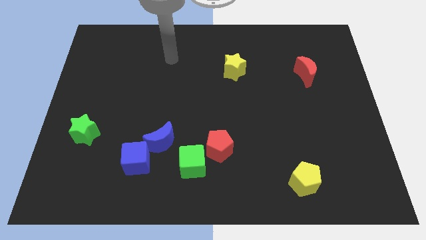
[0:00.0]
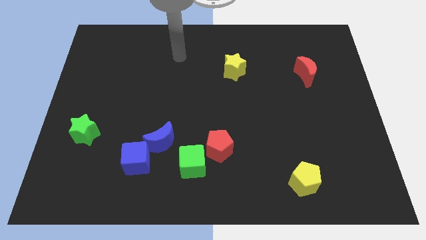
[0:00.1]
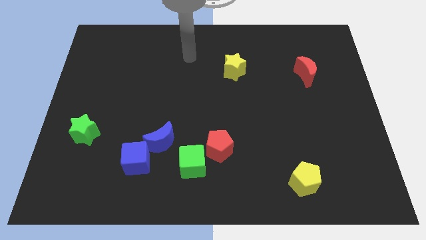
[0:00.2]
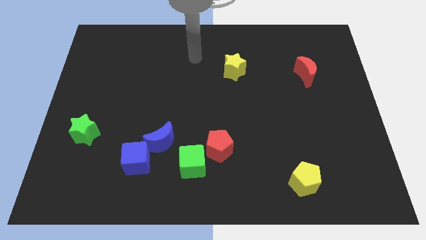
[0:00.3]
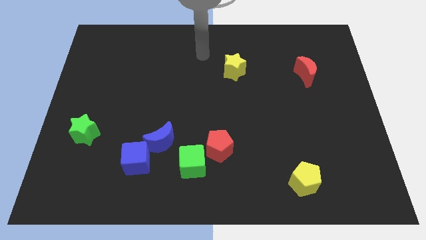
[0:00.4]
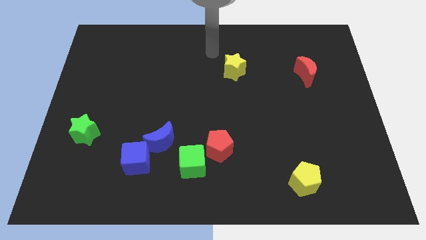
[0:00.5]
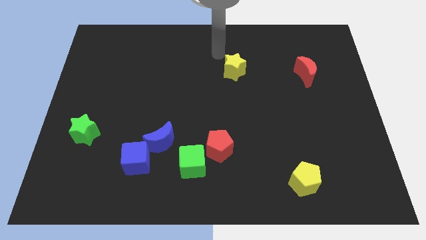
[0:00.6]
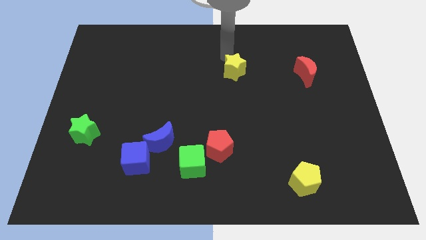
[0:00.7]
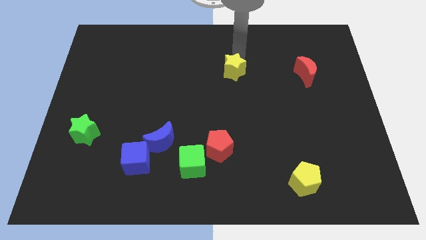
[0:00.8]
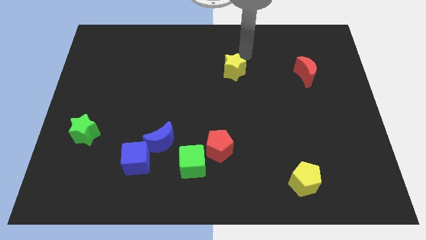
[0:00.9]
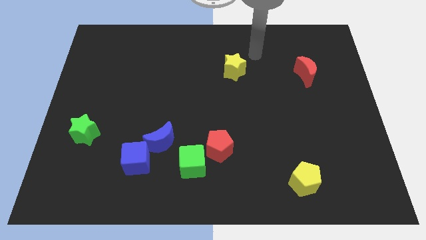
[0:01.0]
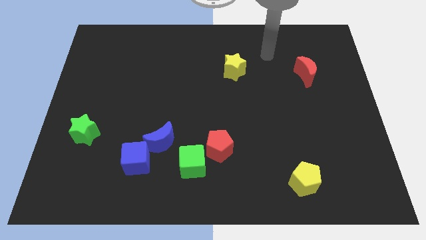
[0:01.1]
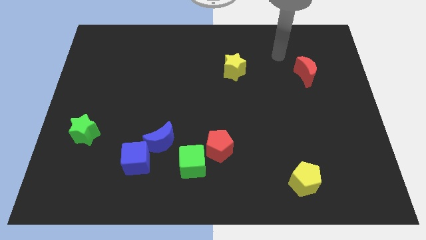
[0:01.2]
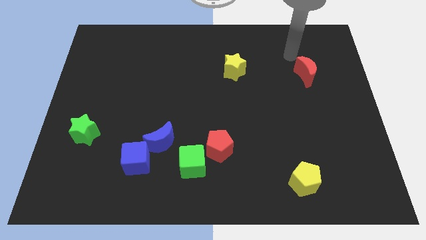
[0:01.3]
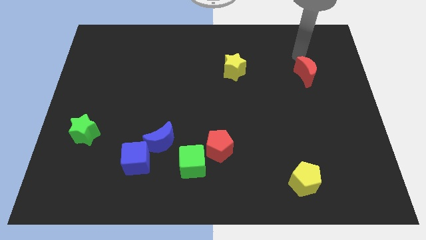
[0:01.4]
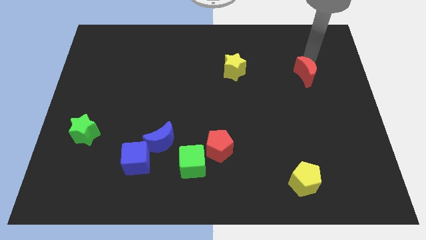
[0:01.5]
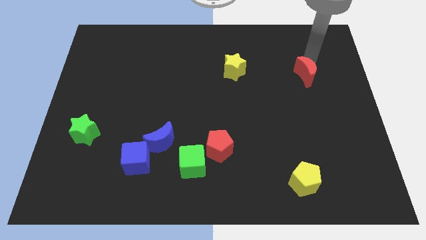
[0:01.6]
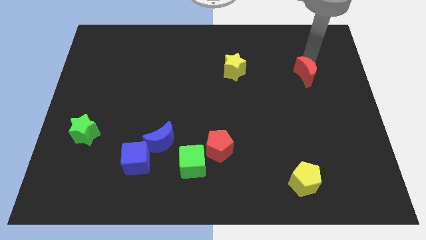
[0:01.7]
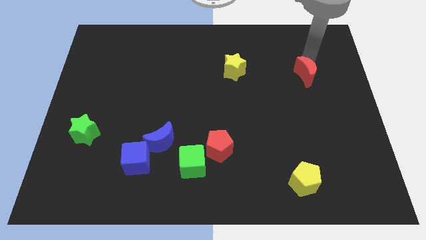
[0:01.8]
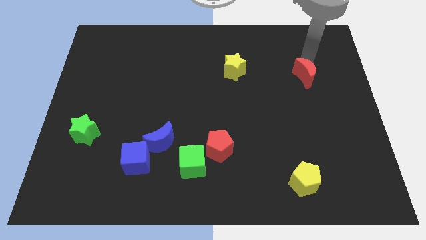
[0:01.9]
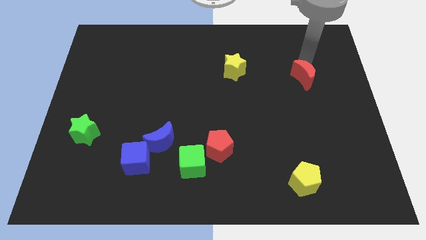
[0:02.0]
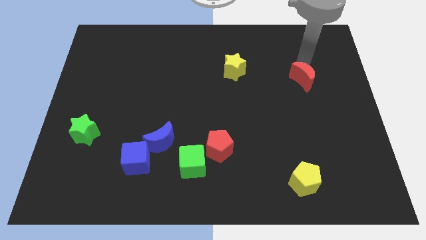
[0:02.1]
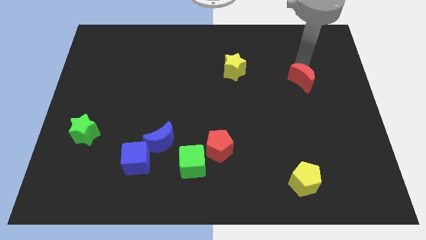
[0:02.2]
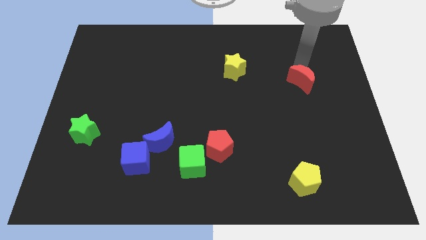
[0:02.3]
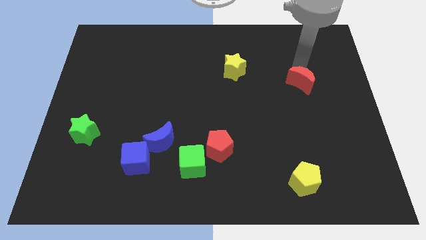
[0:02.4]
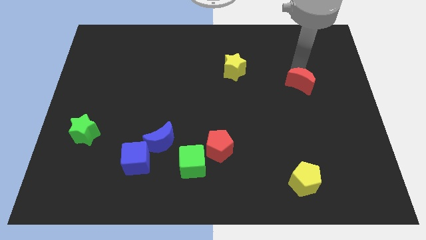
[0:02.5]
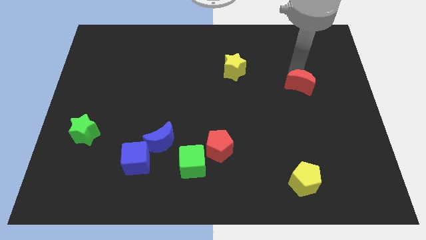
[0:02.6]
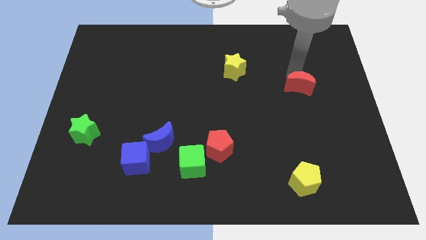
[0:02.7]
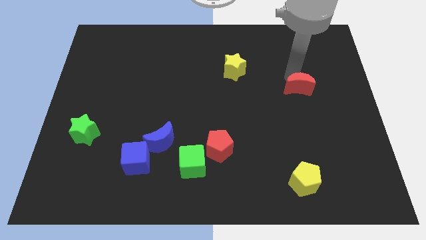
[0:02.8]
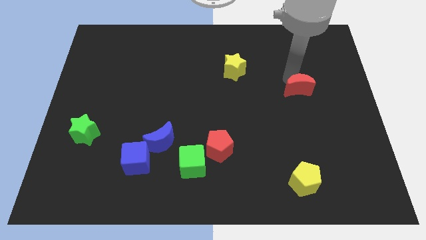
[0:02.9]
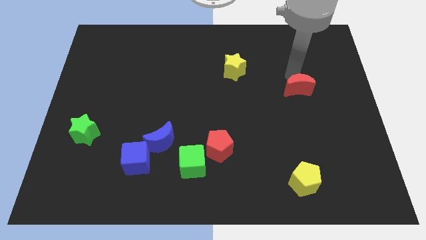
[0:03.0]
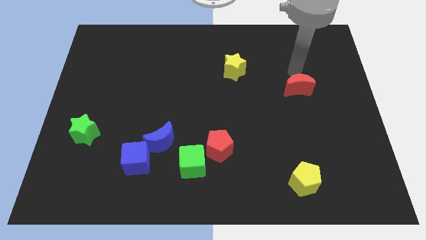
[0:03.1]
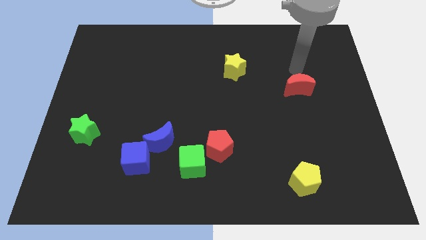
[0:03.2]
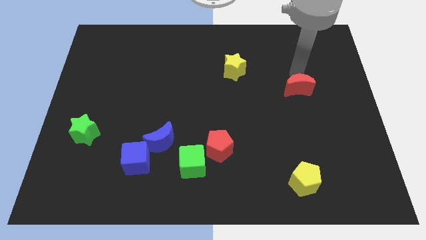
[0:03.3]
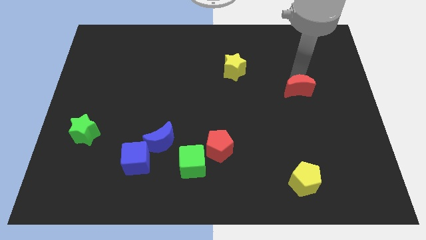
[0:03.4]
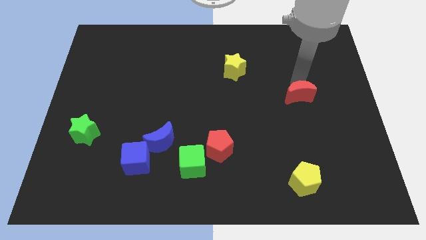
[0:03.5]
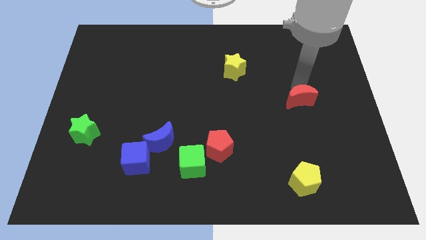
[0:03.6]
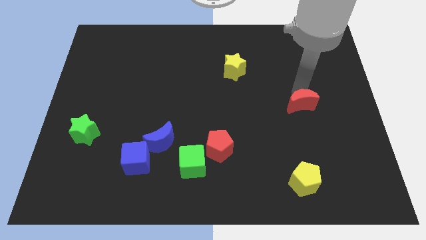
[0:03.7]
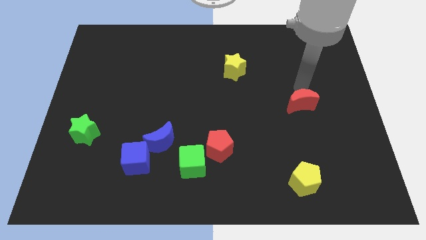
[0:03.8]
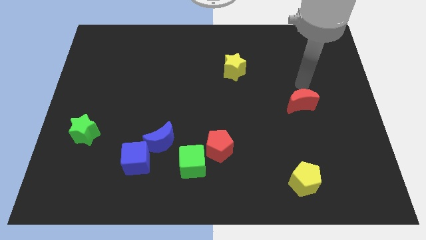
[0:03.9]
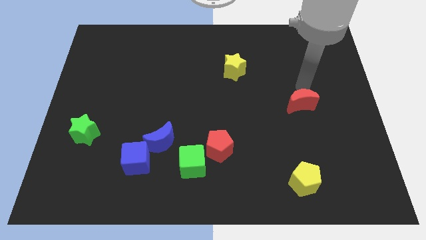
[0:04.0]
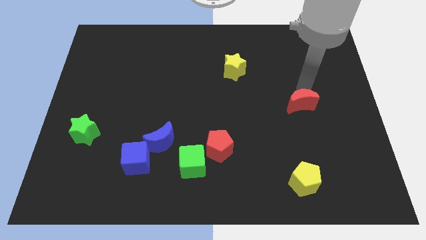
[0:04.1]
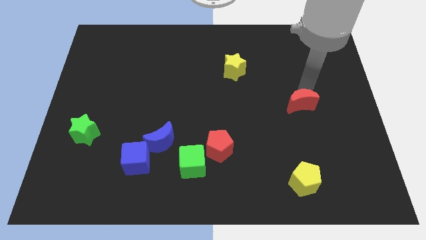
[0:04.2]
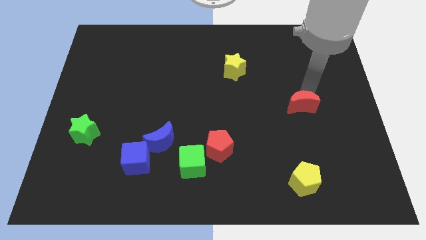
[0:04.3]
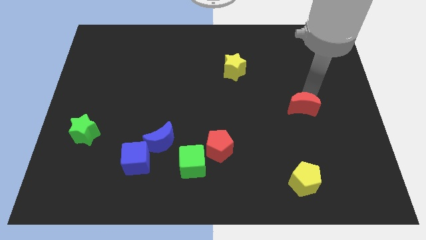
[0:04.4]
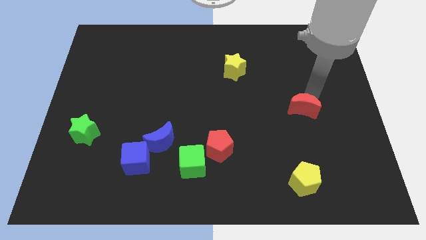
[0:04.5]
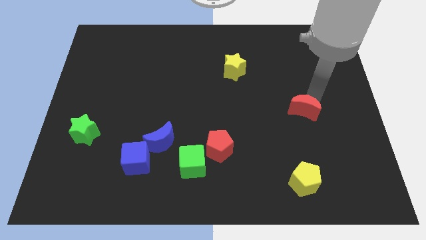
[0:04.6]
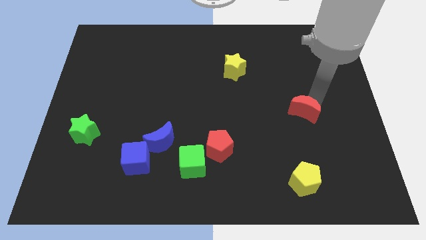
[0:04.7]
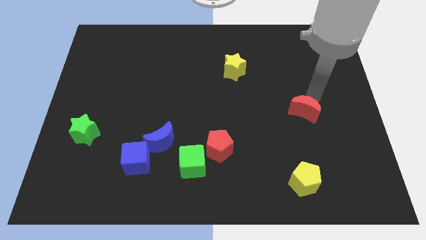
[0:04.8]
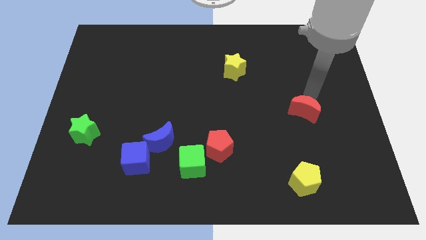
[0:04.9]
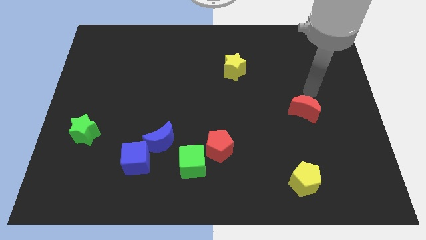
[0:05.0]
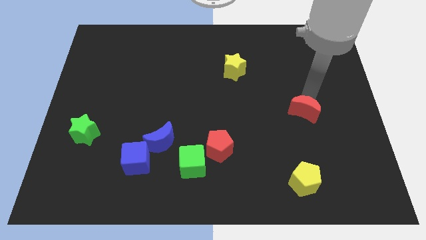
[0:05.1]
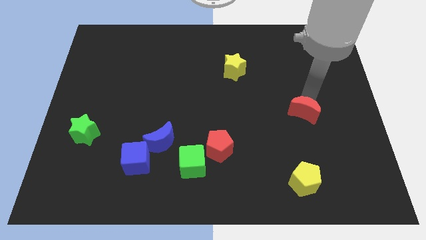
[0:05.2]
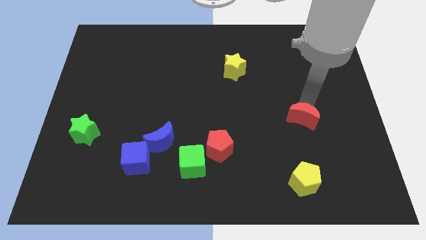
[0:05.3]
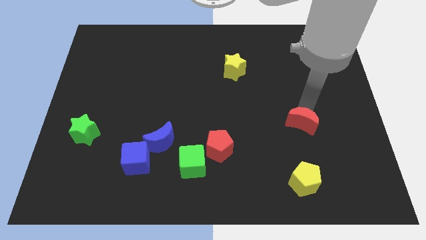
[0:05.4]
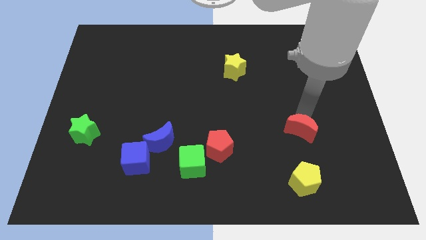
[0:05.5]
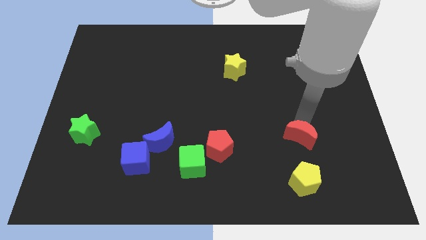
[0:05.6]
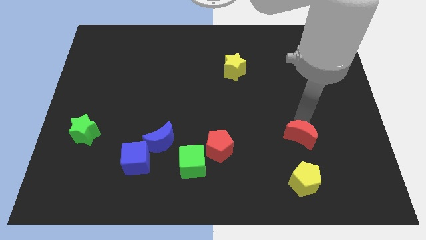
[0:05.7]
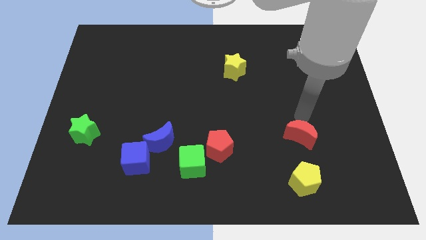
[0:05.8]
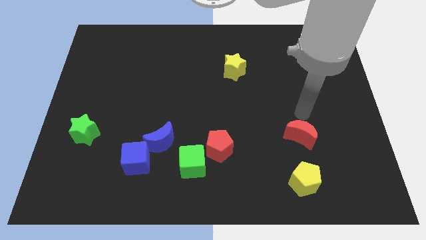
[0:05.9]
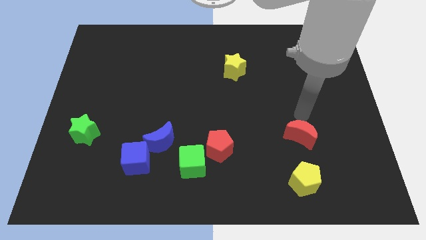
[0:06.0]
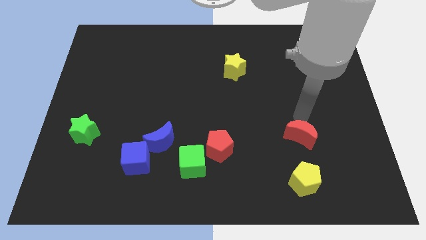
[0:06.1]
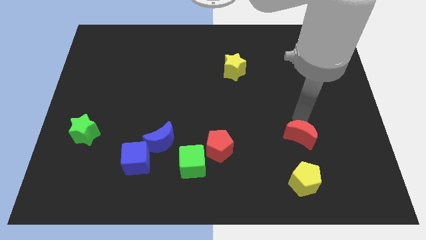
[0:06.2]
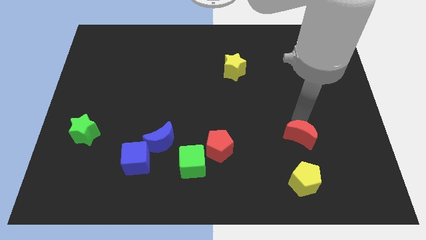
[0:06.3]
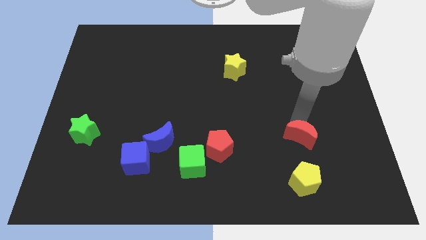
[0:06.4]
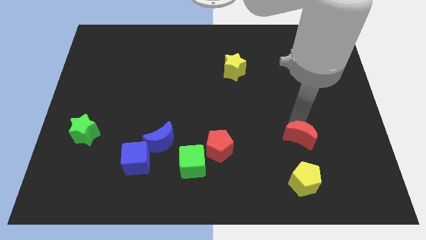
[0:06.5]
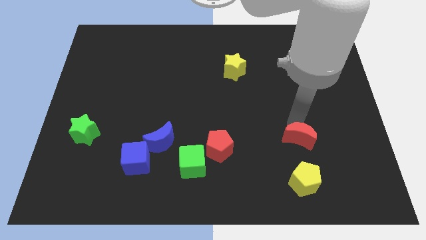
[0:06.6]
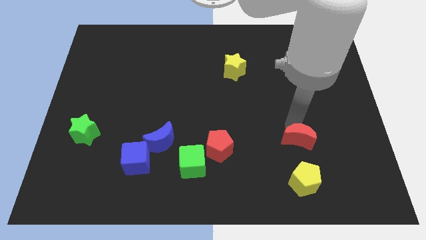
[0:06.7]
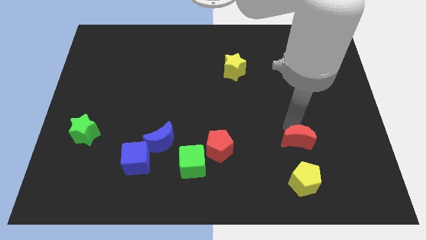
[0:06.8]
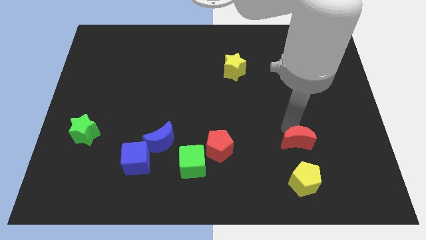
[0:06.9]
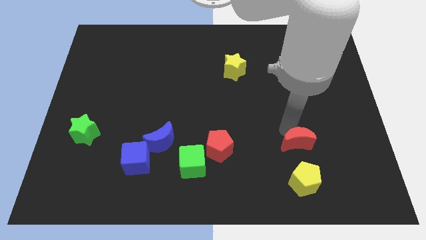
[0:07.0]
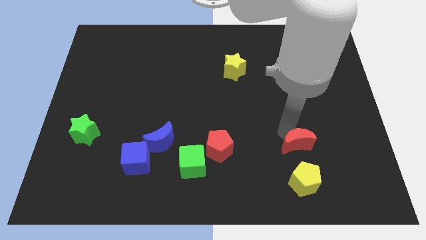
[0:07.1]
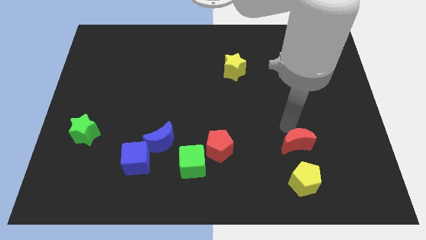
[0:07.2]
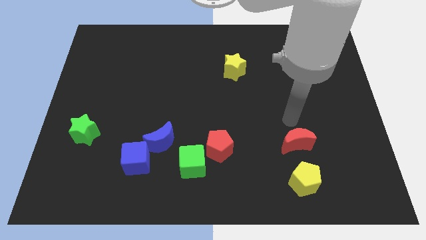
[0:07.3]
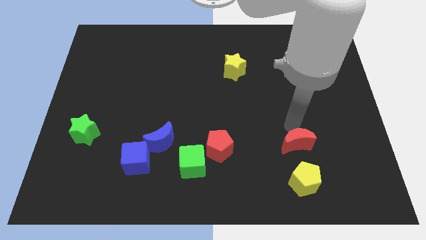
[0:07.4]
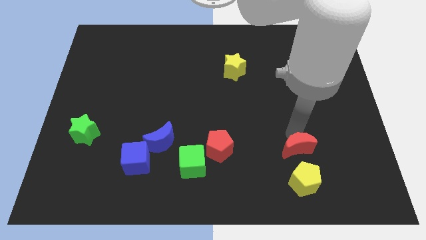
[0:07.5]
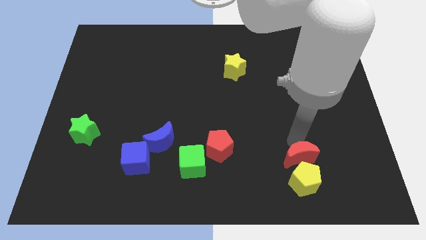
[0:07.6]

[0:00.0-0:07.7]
move the red moon next to the yellow pentagon
